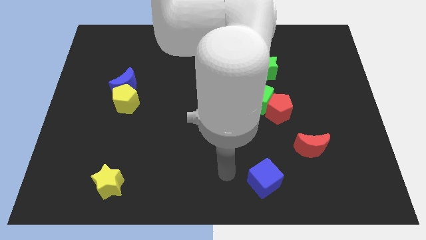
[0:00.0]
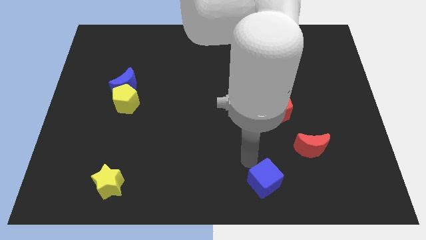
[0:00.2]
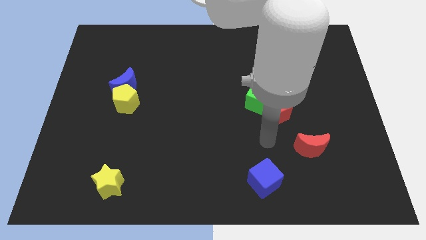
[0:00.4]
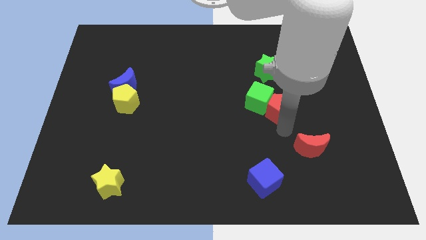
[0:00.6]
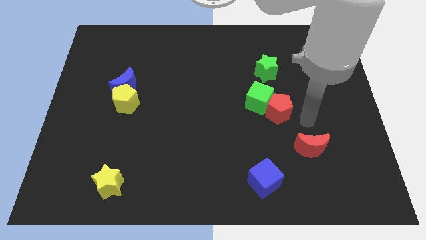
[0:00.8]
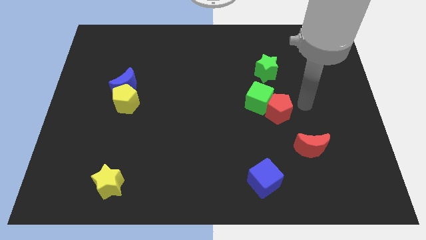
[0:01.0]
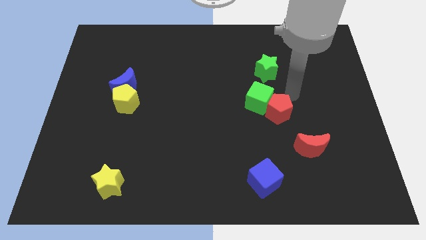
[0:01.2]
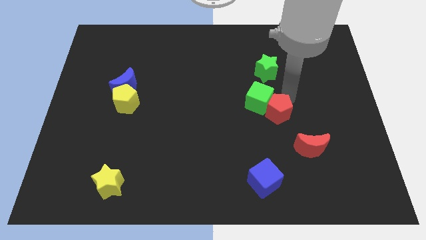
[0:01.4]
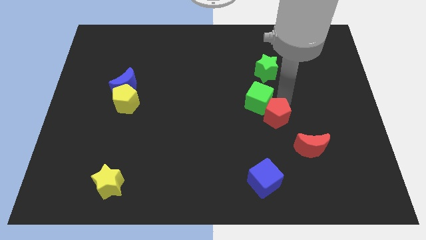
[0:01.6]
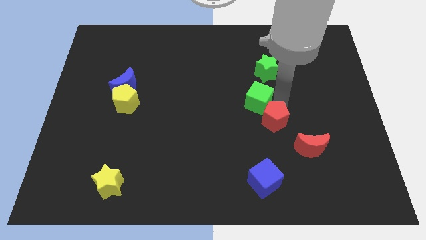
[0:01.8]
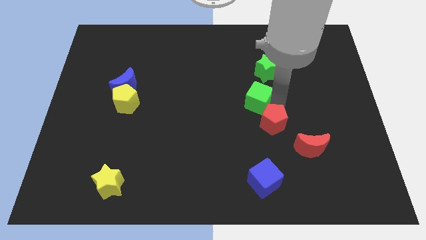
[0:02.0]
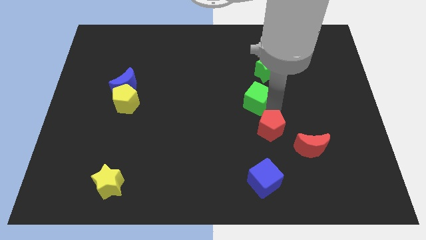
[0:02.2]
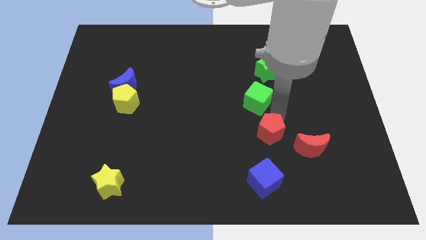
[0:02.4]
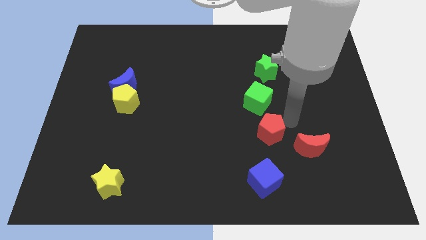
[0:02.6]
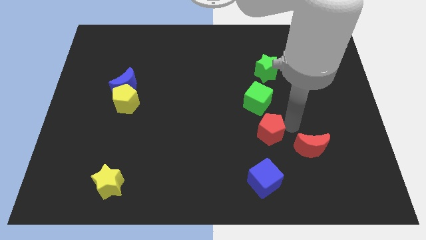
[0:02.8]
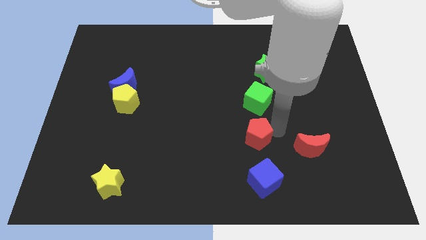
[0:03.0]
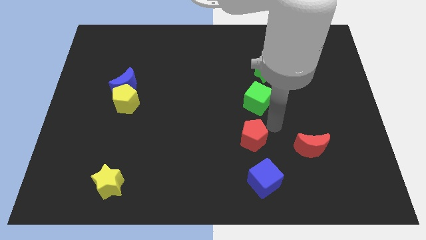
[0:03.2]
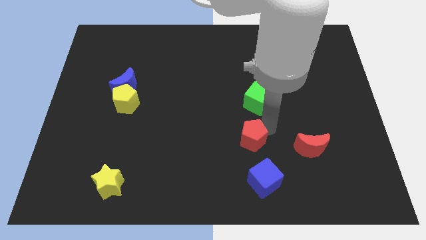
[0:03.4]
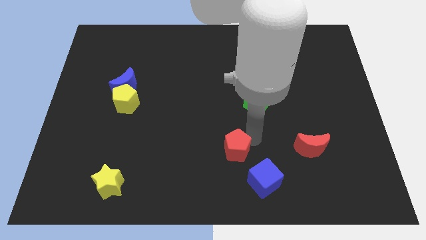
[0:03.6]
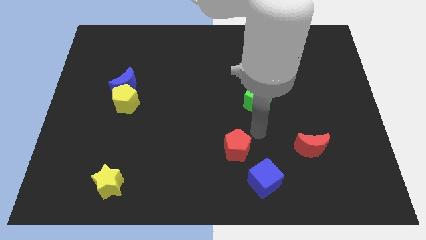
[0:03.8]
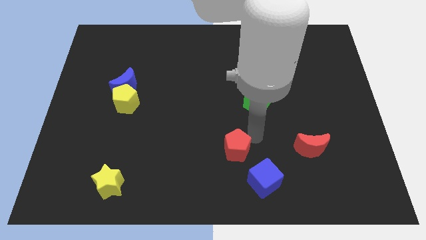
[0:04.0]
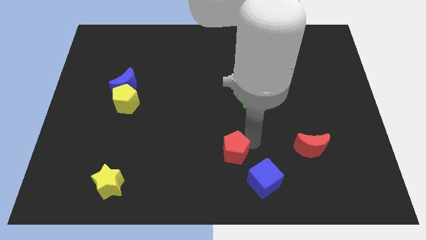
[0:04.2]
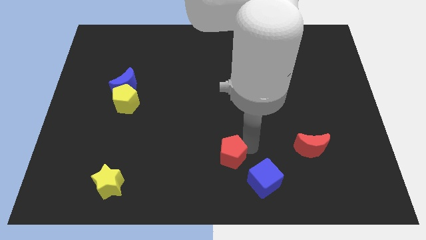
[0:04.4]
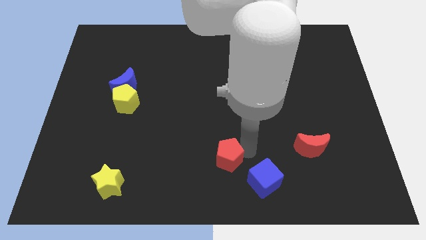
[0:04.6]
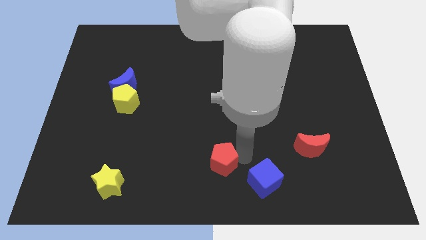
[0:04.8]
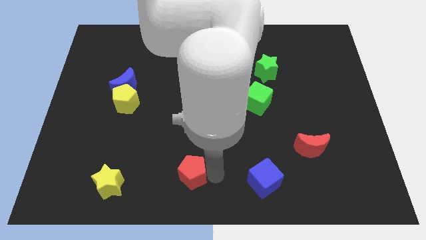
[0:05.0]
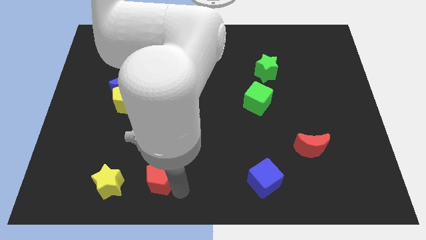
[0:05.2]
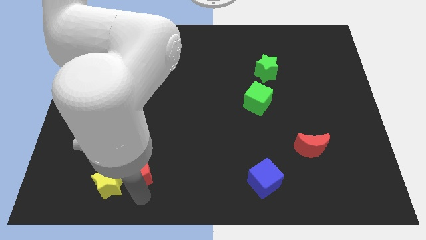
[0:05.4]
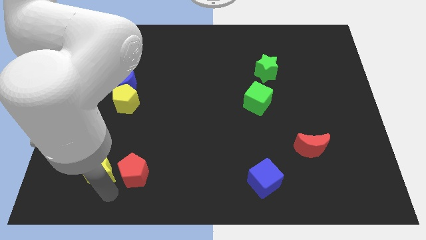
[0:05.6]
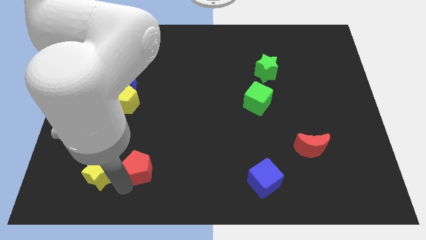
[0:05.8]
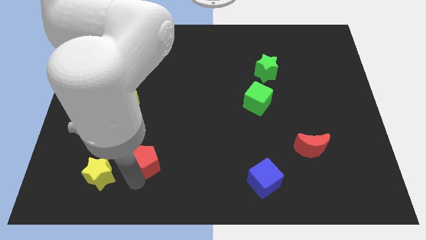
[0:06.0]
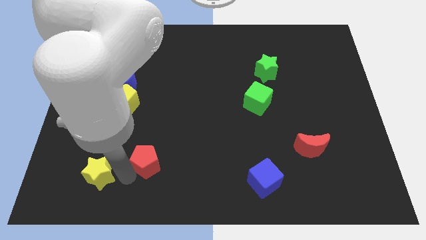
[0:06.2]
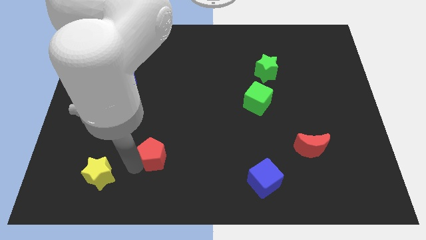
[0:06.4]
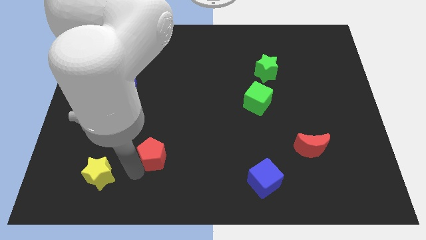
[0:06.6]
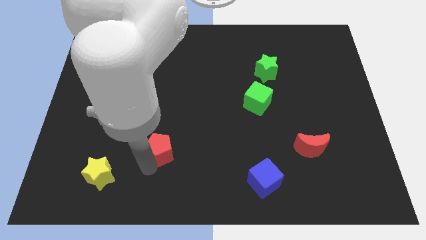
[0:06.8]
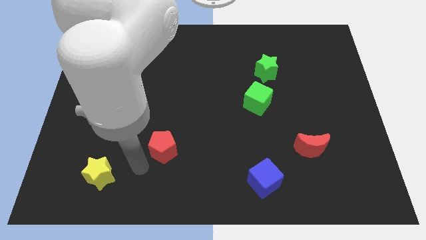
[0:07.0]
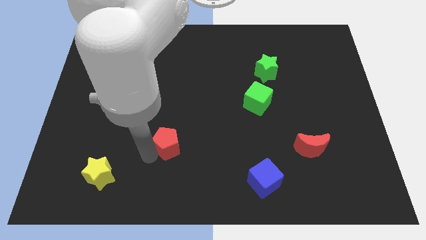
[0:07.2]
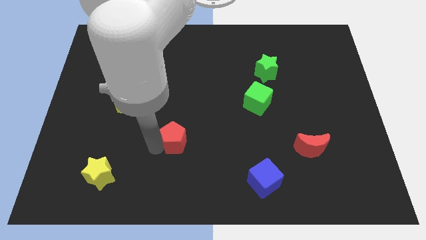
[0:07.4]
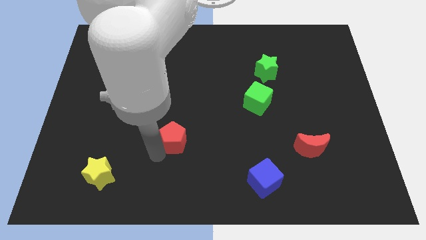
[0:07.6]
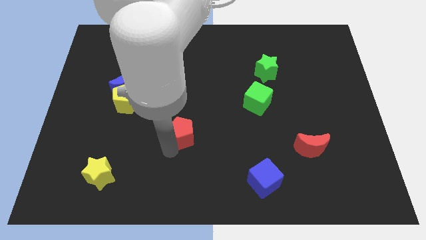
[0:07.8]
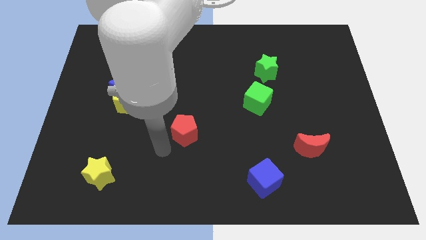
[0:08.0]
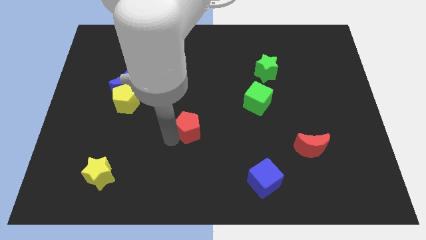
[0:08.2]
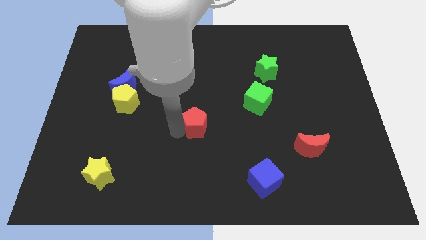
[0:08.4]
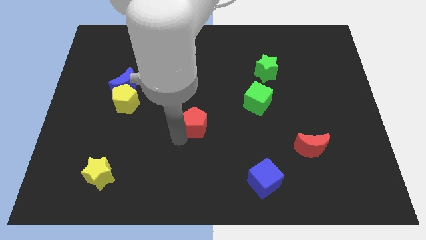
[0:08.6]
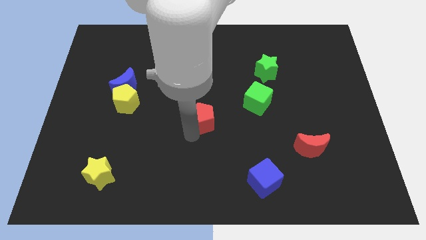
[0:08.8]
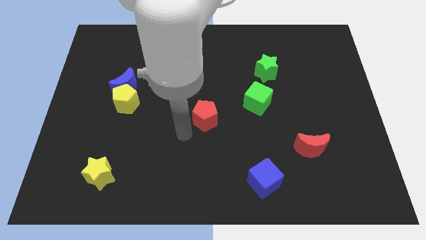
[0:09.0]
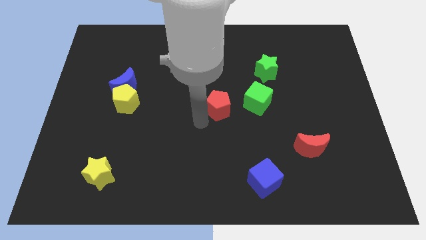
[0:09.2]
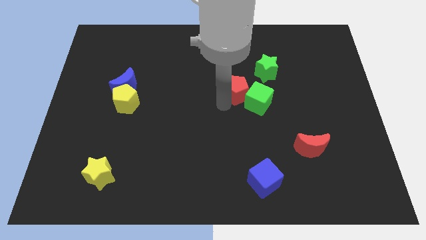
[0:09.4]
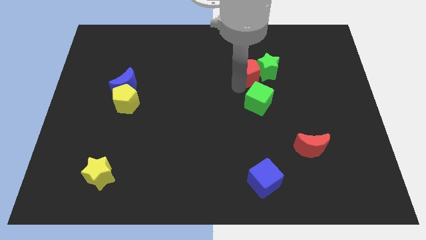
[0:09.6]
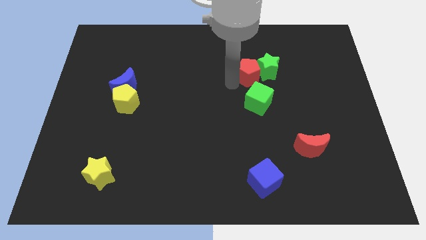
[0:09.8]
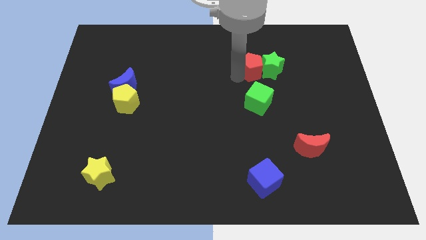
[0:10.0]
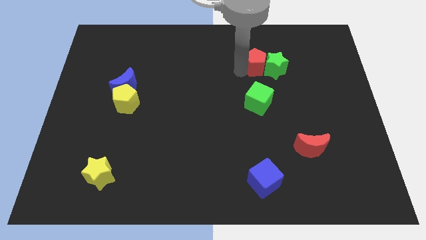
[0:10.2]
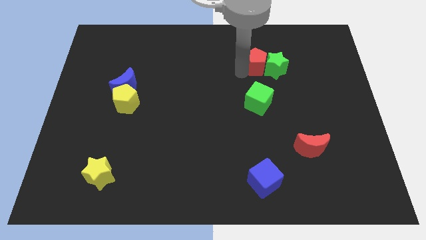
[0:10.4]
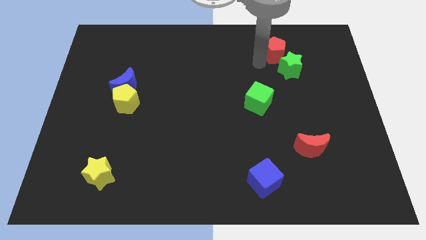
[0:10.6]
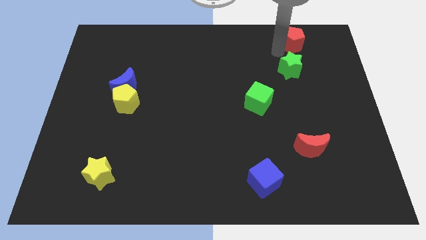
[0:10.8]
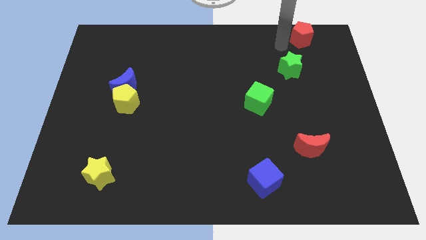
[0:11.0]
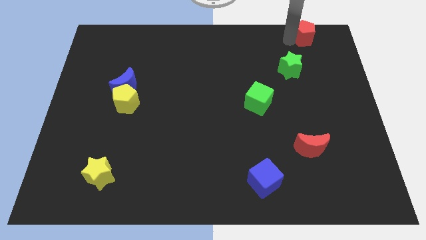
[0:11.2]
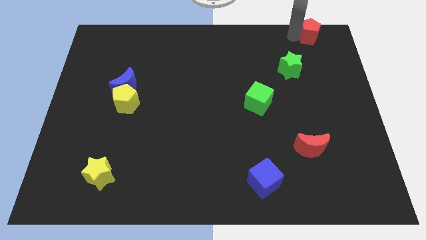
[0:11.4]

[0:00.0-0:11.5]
move the red pentagon to the top right
